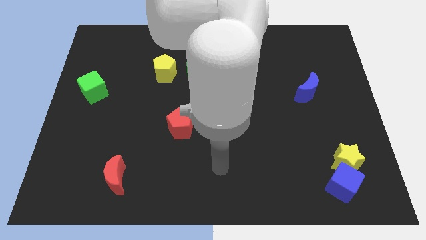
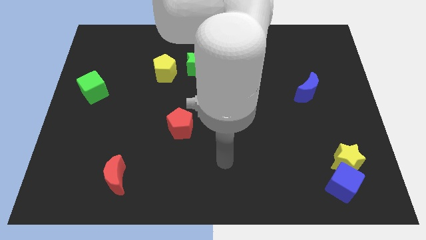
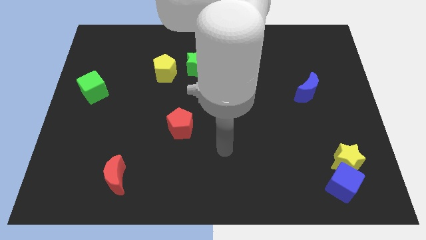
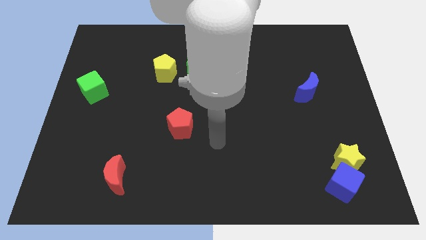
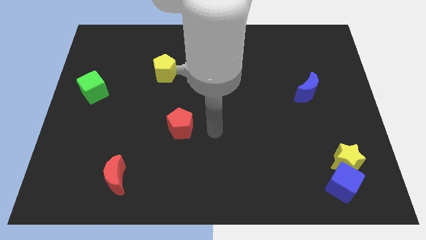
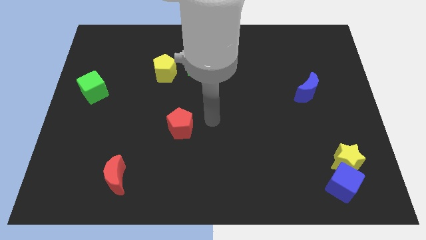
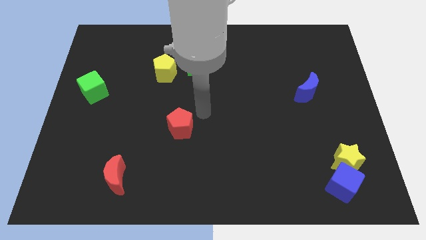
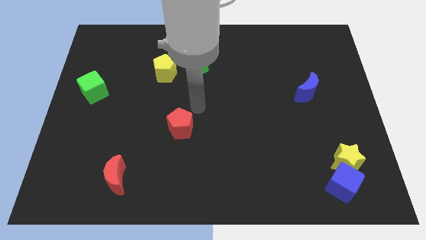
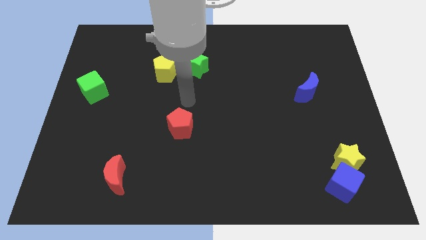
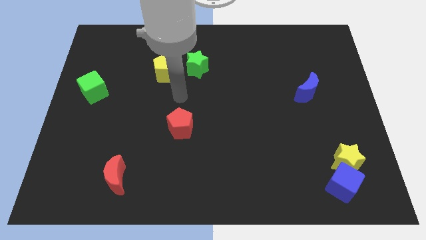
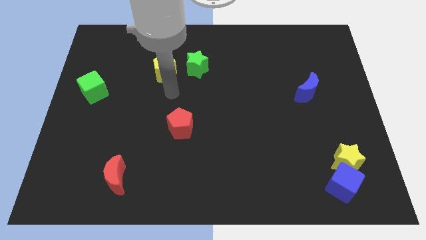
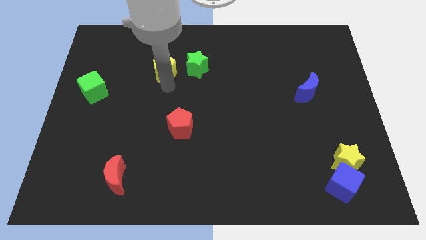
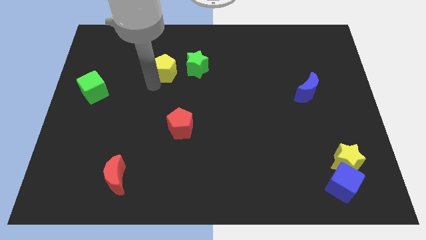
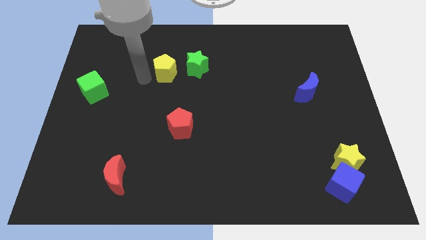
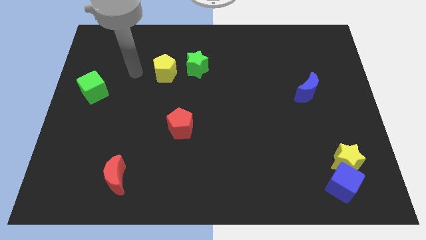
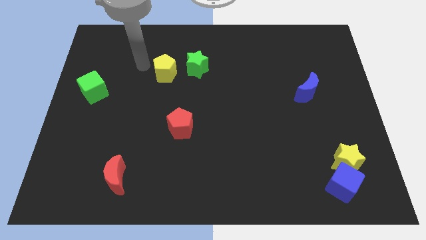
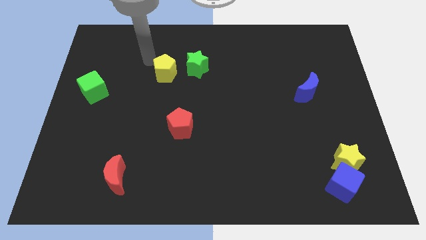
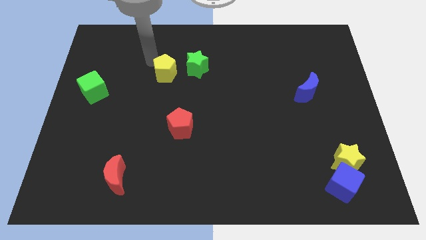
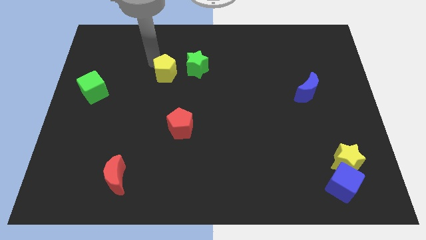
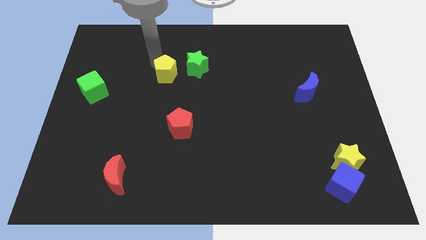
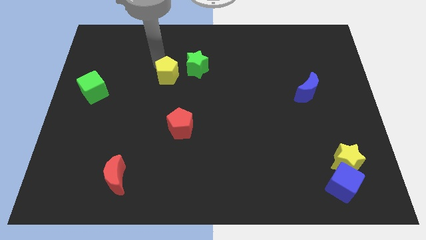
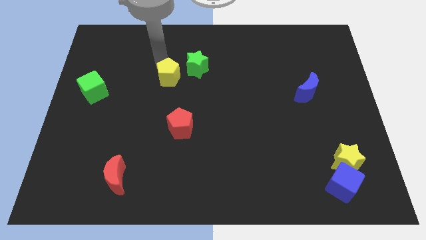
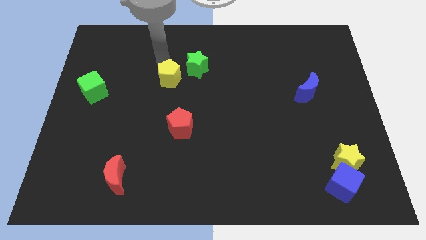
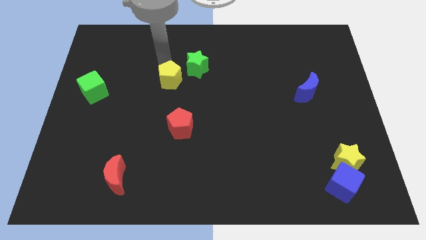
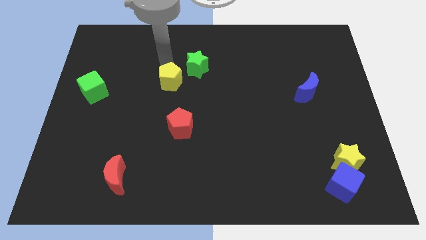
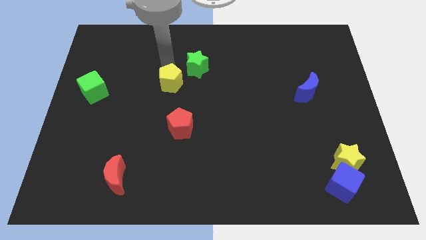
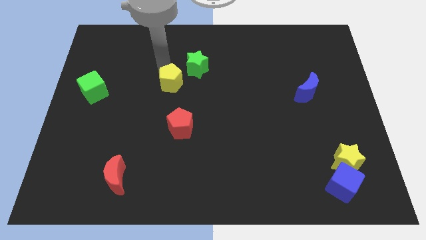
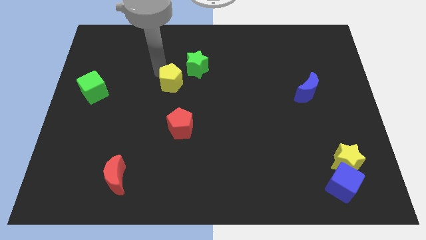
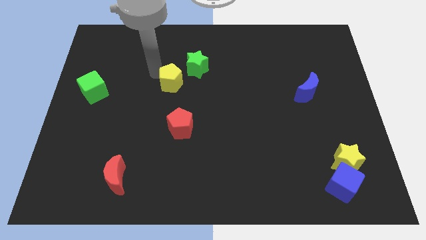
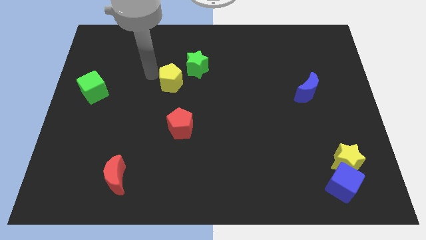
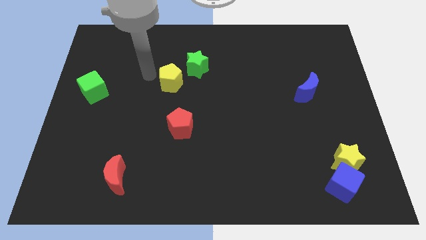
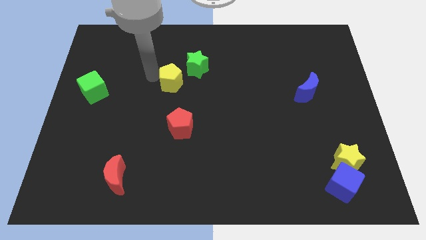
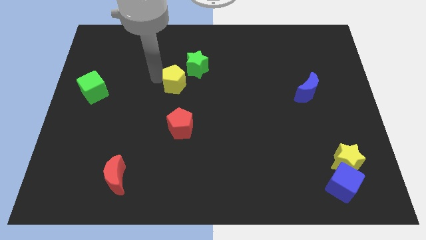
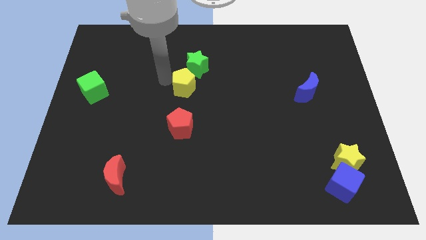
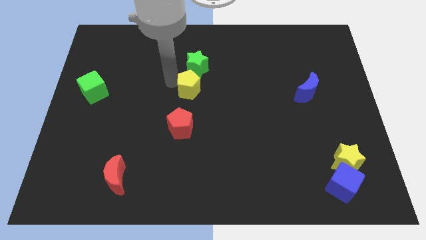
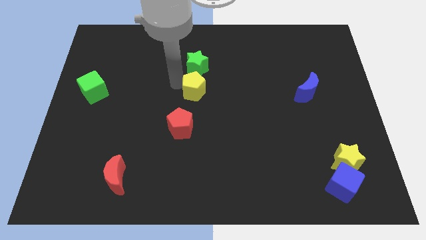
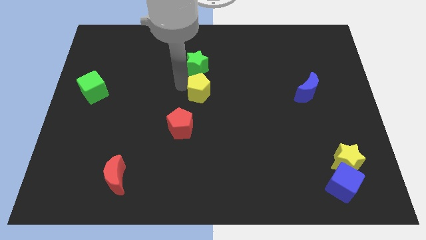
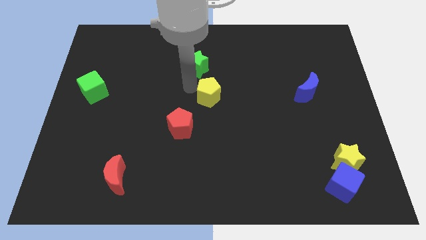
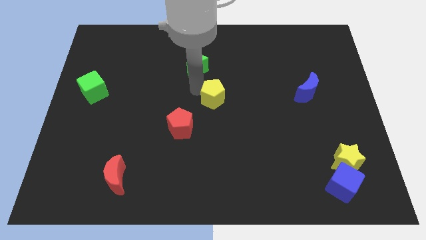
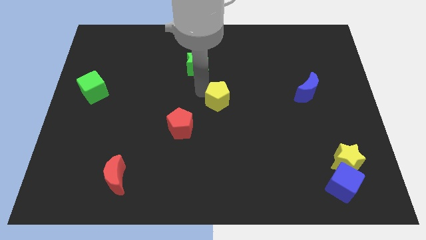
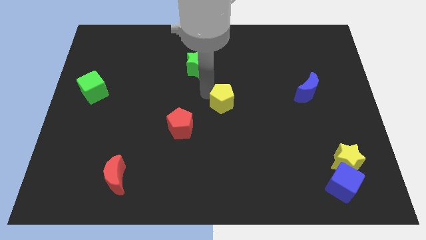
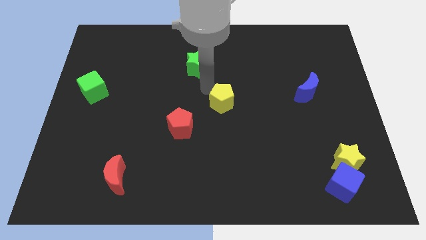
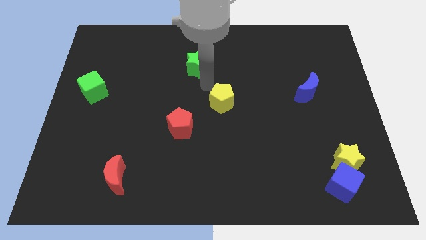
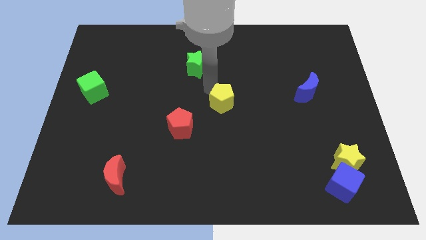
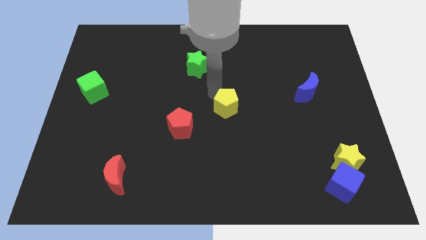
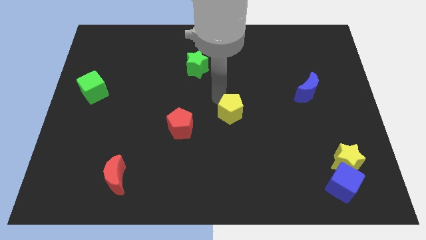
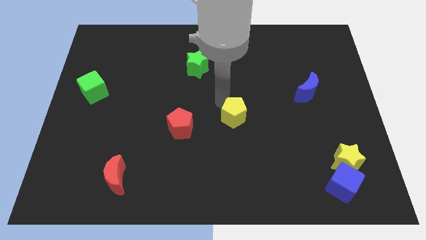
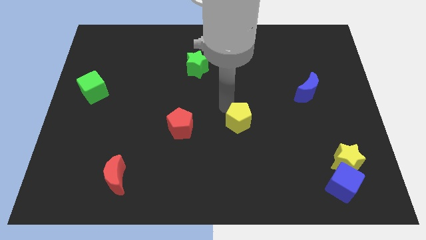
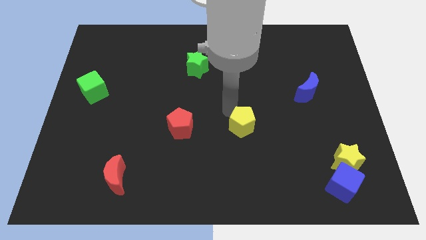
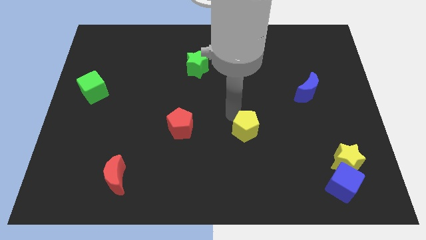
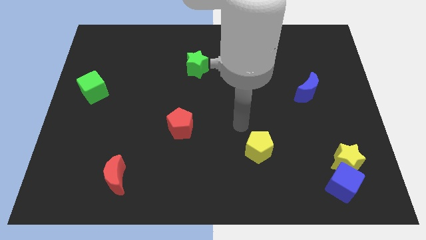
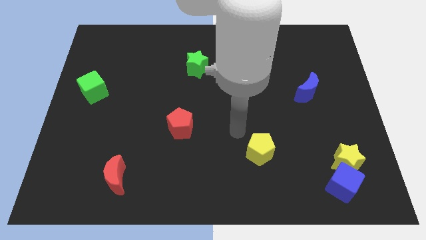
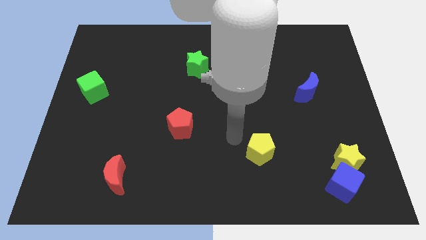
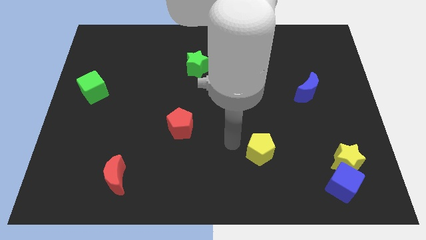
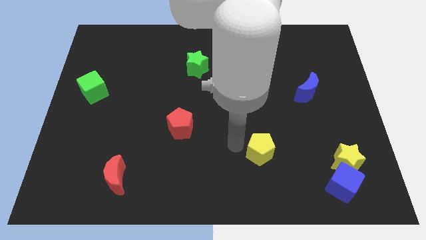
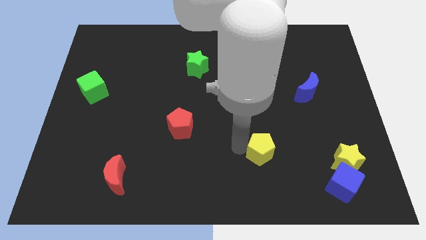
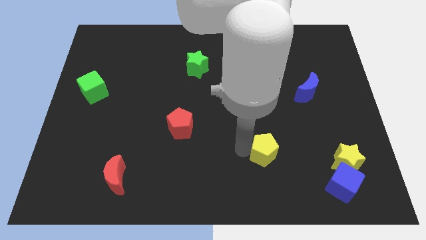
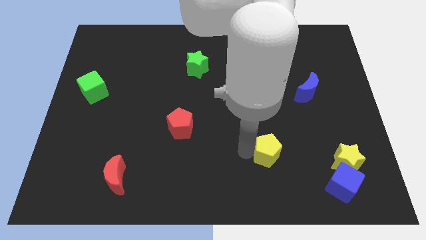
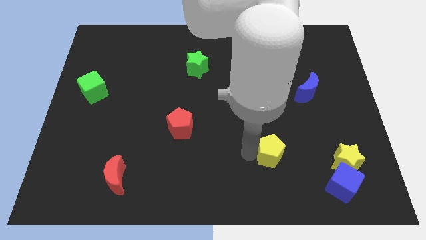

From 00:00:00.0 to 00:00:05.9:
slide the yellow pentagon to the left of the yellow star
